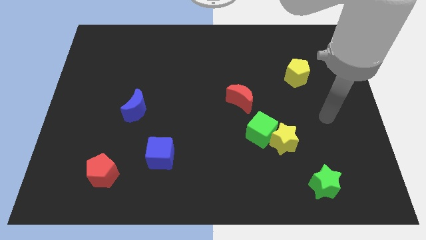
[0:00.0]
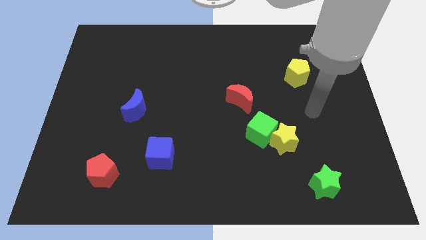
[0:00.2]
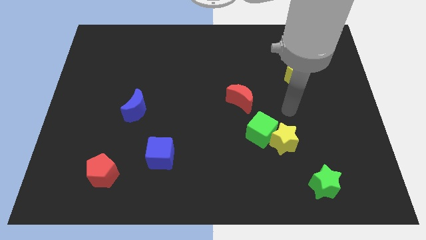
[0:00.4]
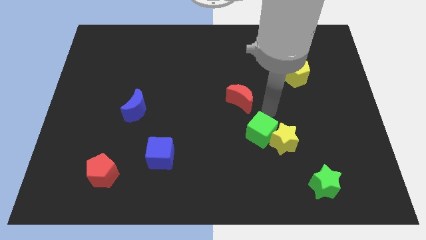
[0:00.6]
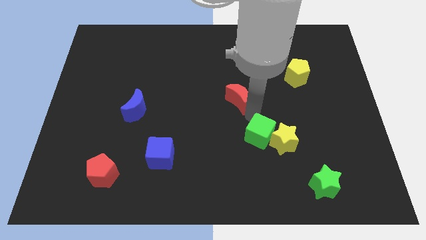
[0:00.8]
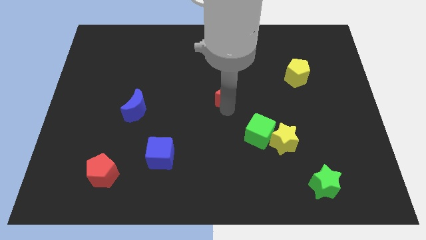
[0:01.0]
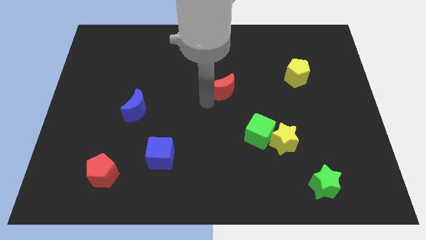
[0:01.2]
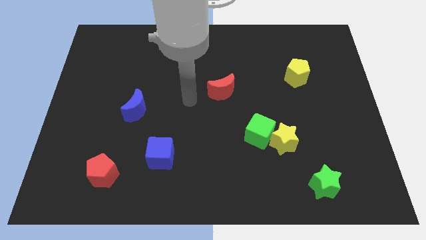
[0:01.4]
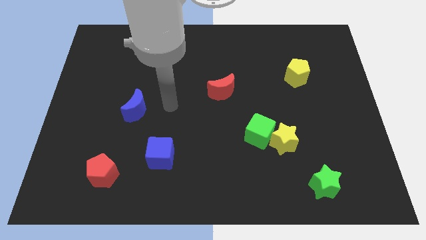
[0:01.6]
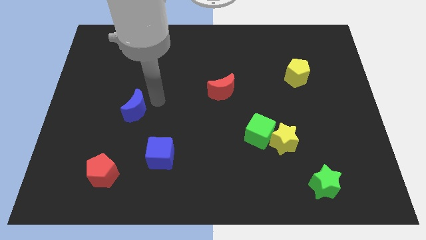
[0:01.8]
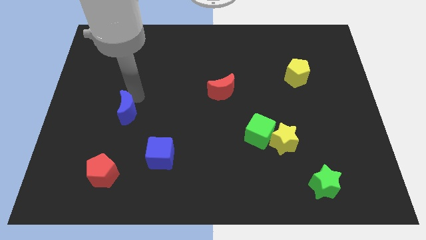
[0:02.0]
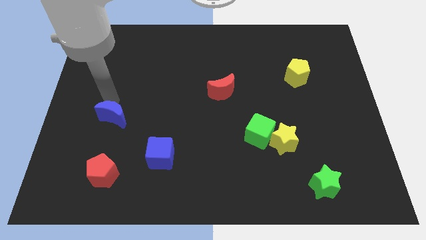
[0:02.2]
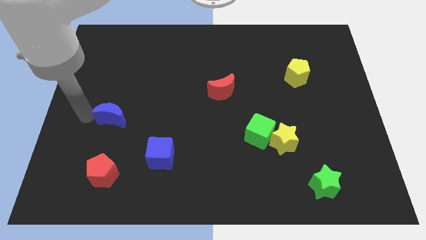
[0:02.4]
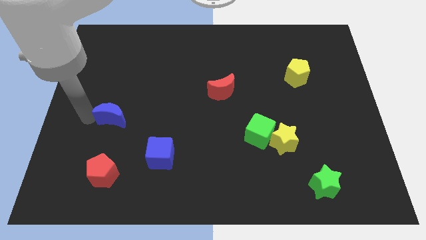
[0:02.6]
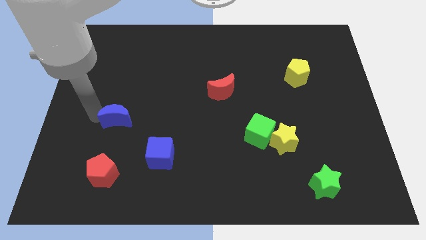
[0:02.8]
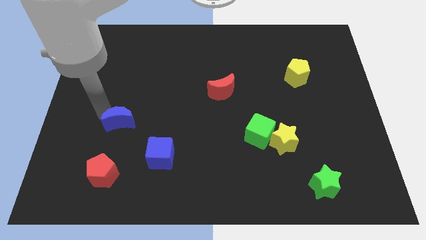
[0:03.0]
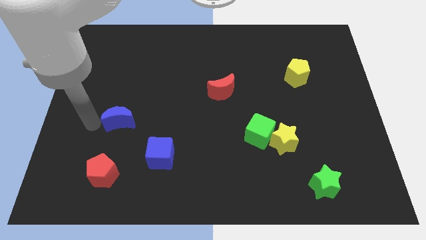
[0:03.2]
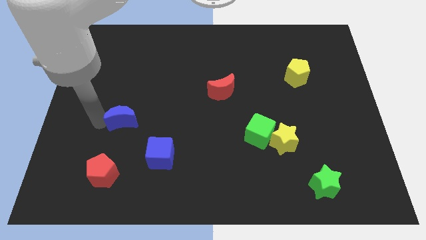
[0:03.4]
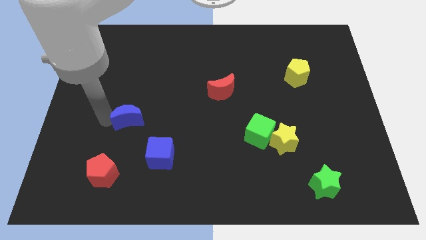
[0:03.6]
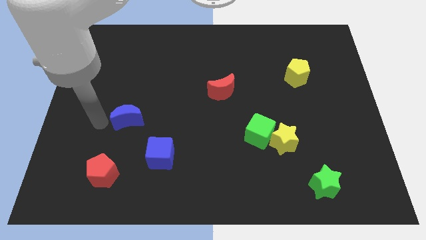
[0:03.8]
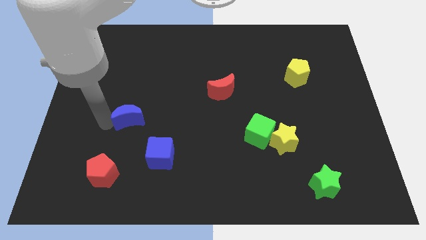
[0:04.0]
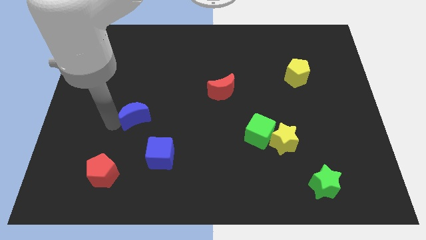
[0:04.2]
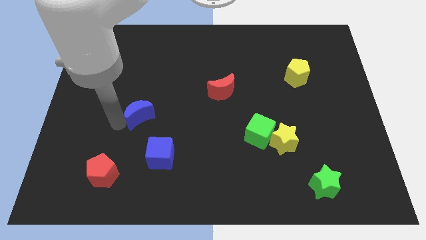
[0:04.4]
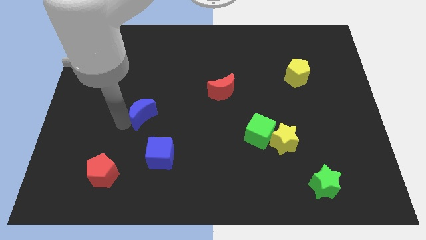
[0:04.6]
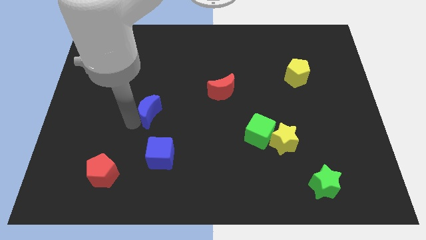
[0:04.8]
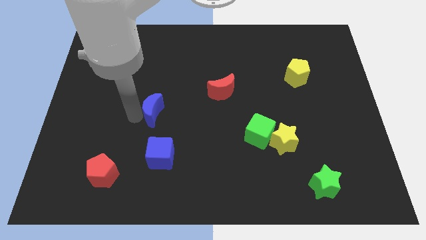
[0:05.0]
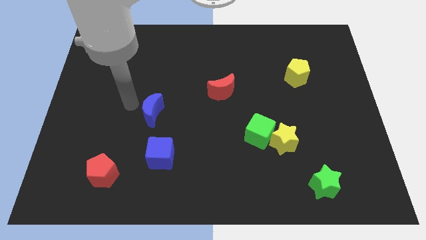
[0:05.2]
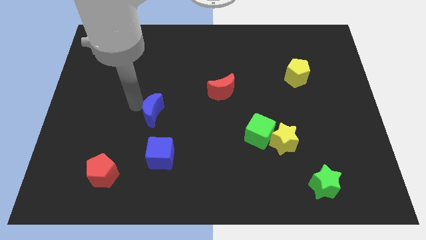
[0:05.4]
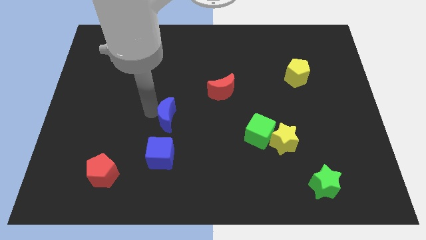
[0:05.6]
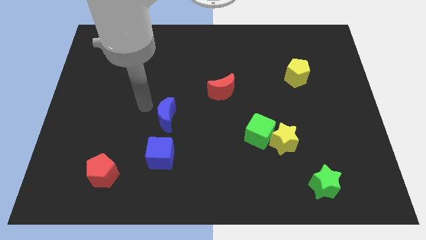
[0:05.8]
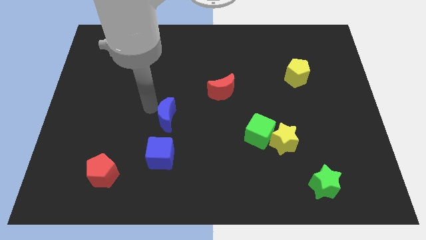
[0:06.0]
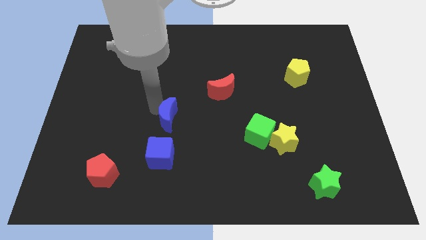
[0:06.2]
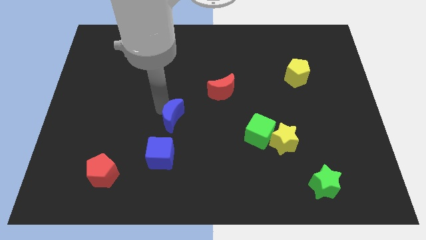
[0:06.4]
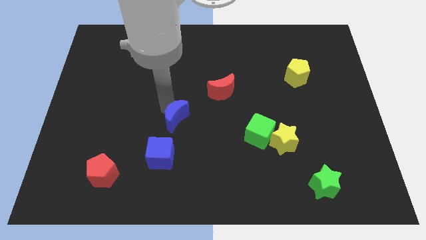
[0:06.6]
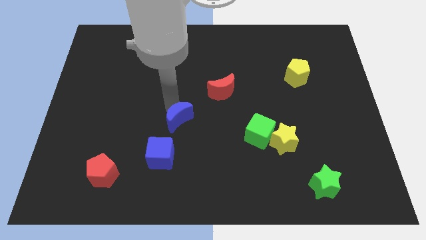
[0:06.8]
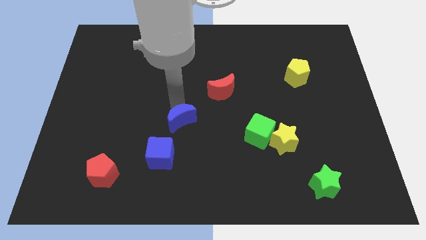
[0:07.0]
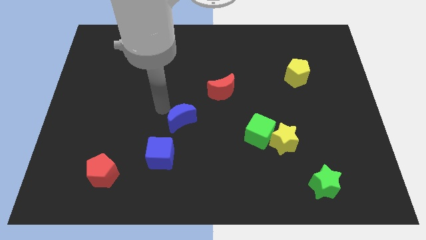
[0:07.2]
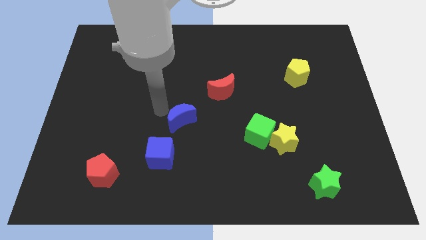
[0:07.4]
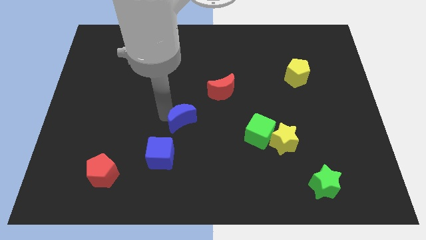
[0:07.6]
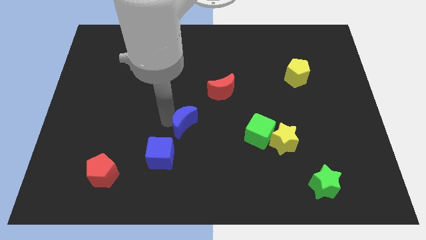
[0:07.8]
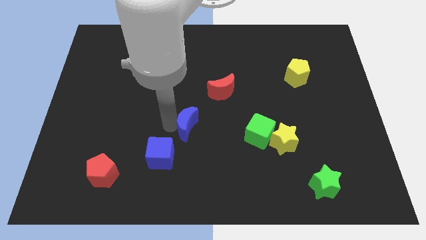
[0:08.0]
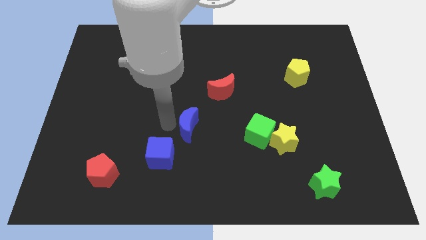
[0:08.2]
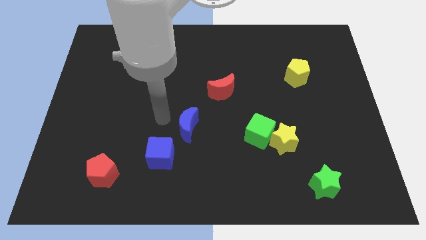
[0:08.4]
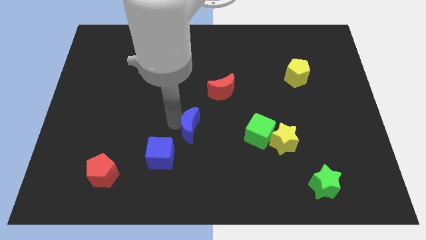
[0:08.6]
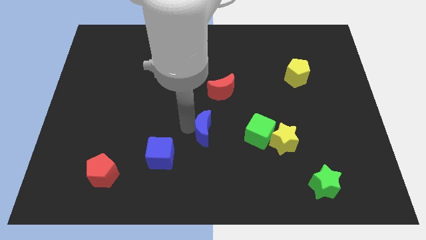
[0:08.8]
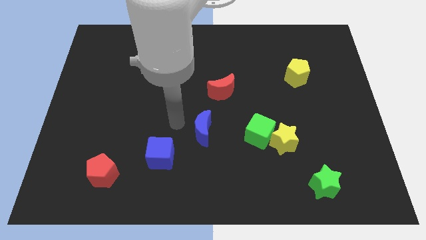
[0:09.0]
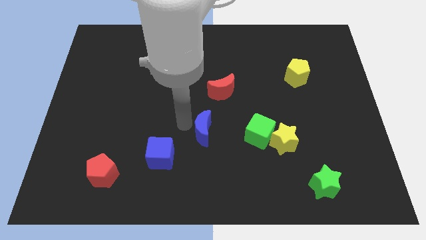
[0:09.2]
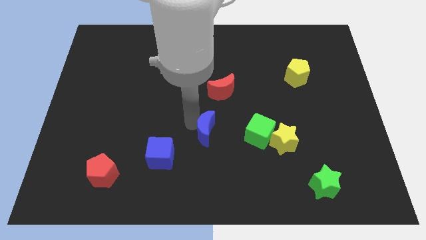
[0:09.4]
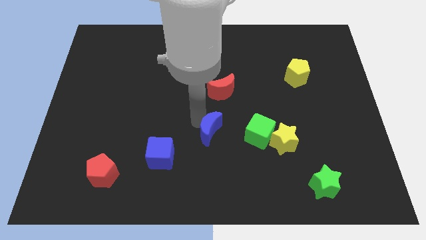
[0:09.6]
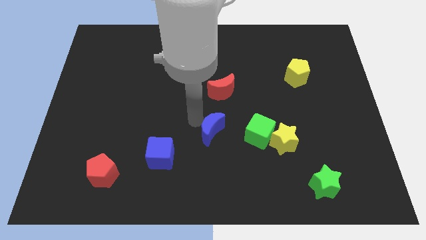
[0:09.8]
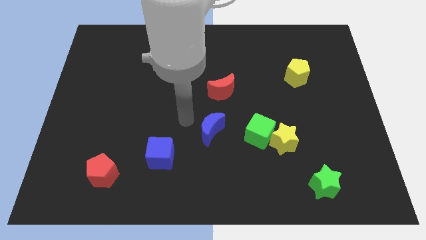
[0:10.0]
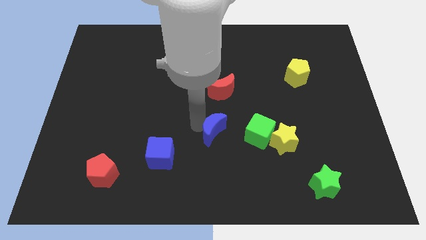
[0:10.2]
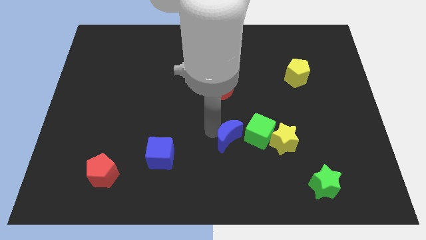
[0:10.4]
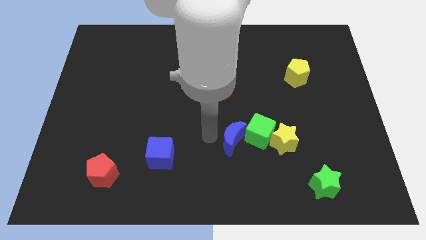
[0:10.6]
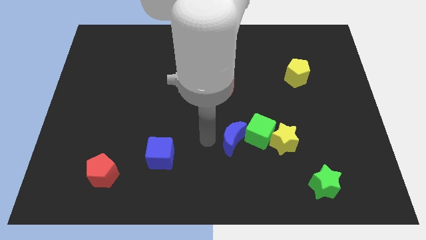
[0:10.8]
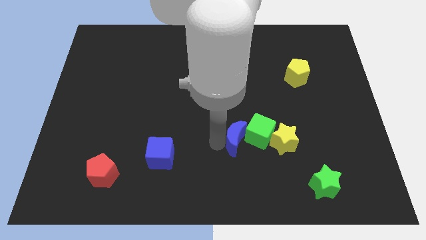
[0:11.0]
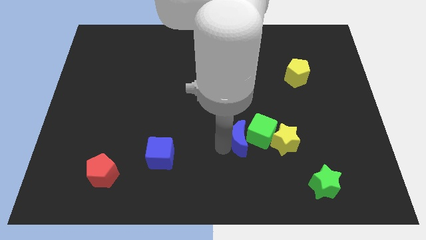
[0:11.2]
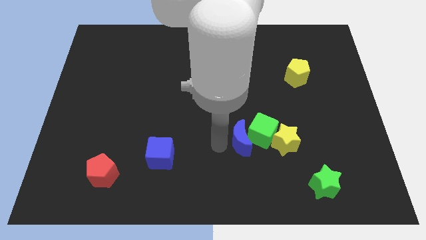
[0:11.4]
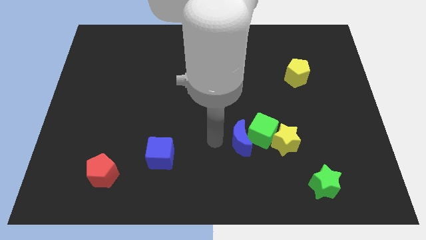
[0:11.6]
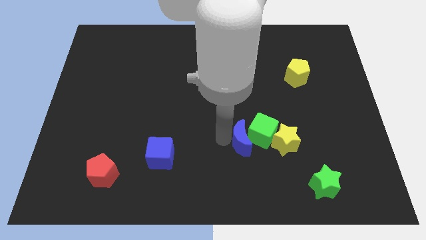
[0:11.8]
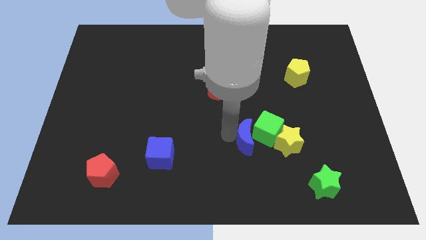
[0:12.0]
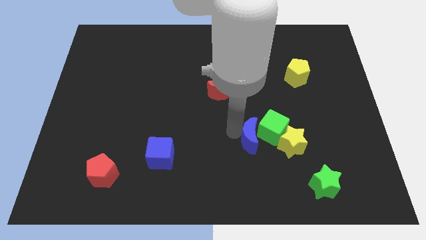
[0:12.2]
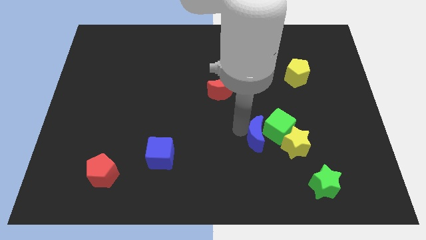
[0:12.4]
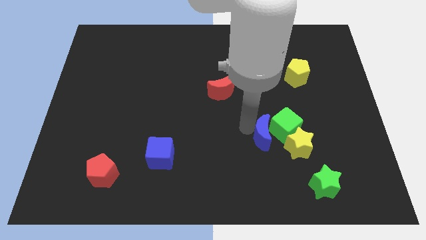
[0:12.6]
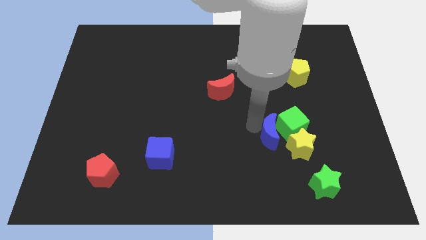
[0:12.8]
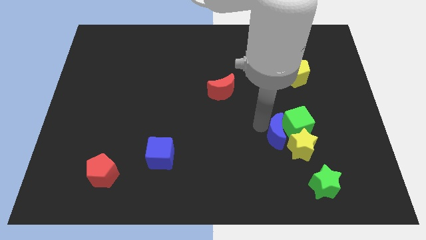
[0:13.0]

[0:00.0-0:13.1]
put the blue moon close to the yellow star
